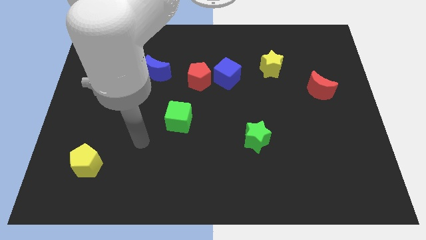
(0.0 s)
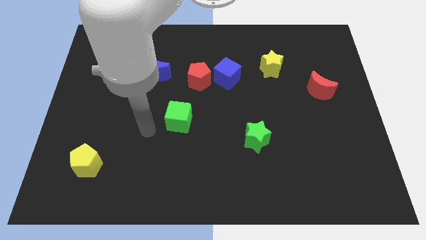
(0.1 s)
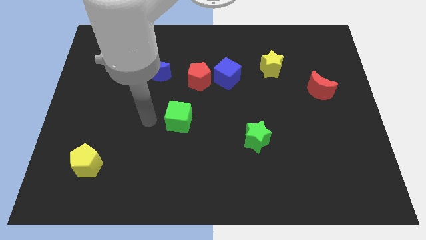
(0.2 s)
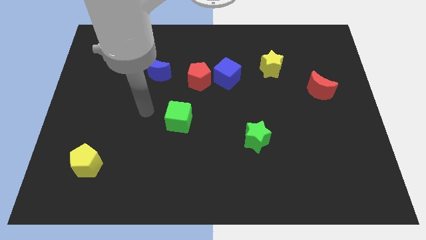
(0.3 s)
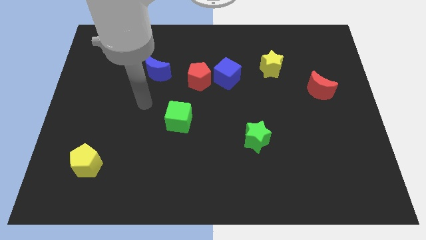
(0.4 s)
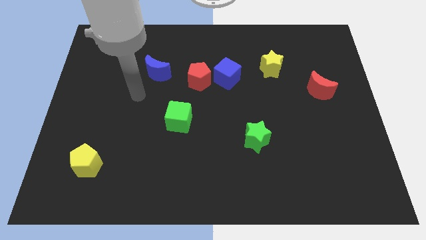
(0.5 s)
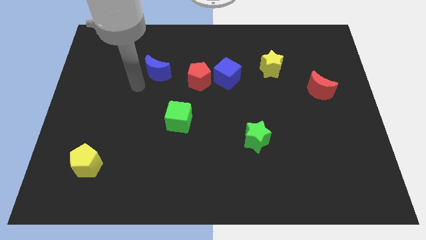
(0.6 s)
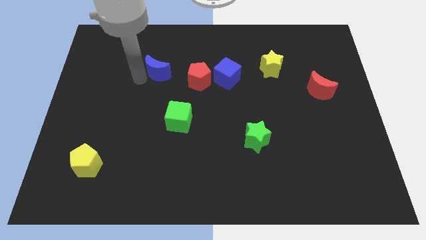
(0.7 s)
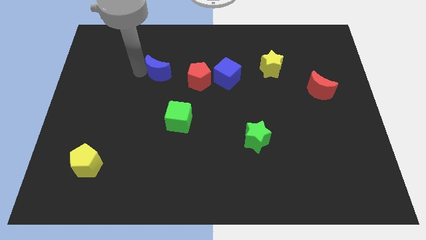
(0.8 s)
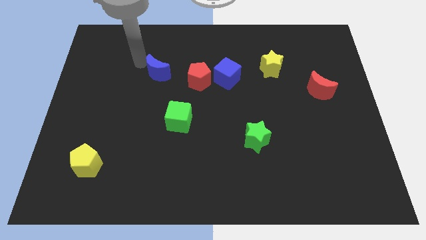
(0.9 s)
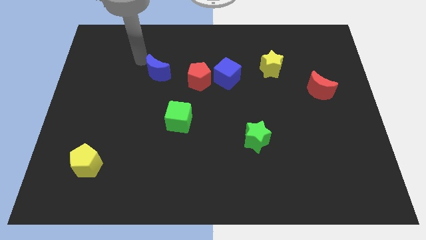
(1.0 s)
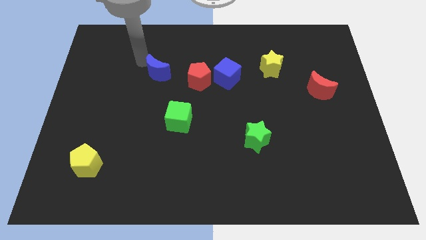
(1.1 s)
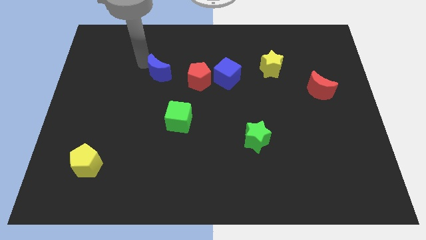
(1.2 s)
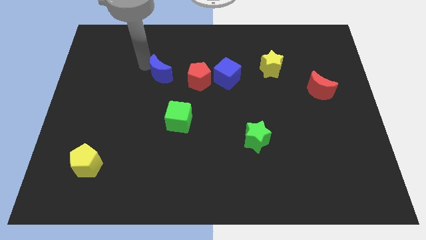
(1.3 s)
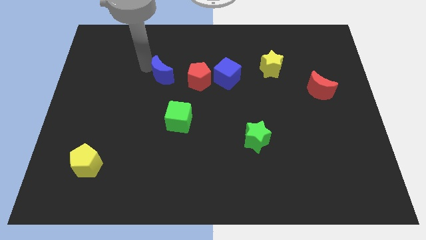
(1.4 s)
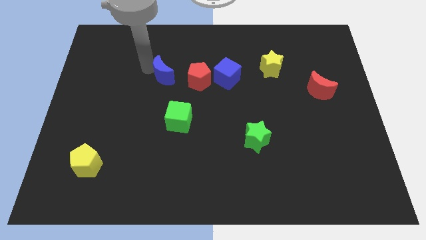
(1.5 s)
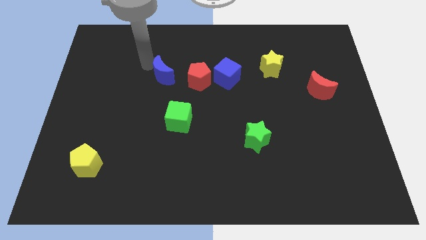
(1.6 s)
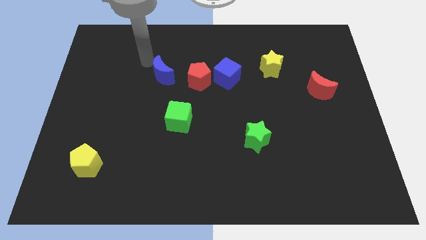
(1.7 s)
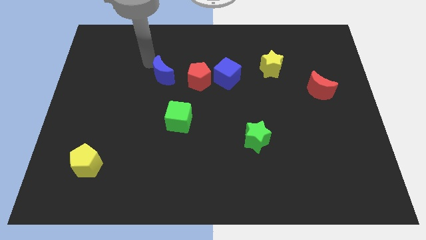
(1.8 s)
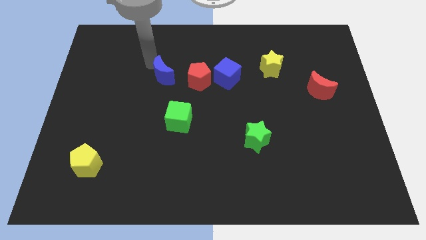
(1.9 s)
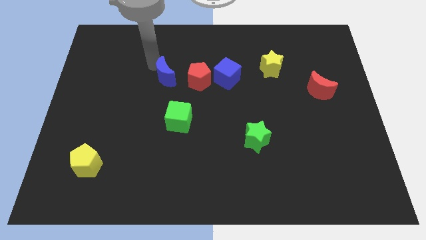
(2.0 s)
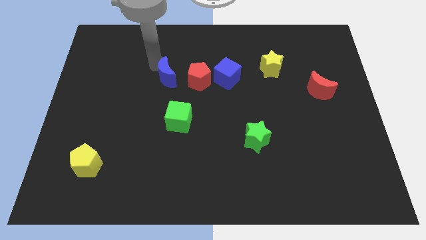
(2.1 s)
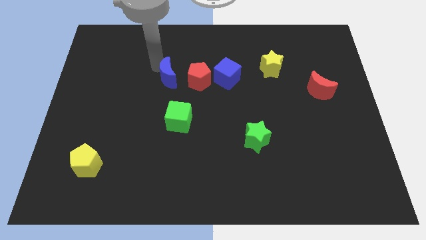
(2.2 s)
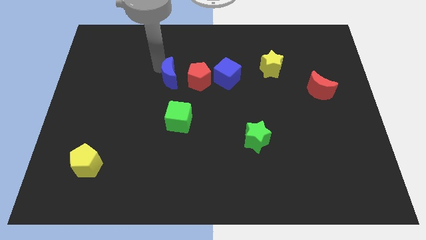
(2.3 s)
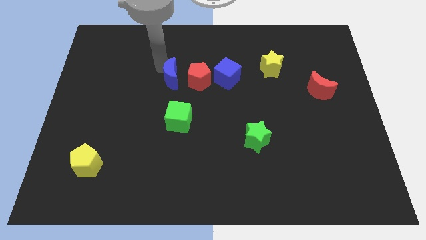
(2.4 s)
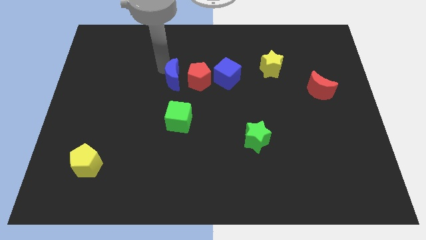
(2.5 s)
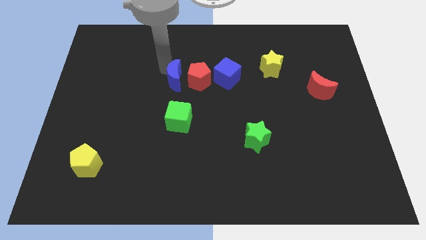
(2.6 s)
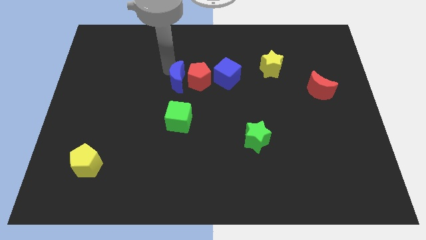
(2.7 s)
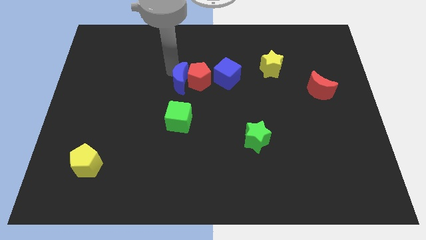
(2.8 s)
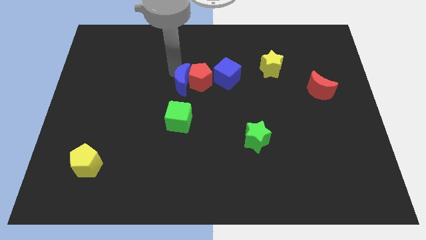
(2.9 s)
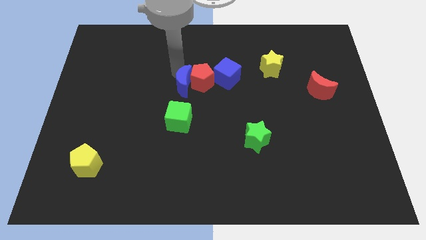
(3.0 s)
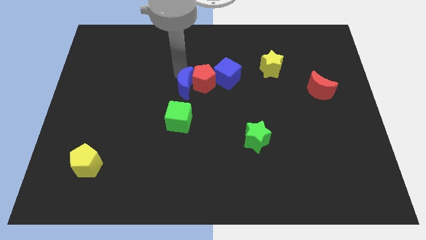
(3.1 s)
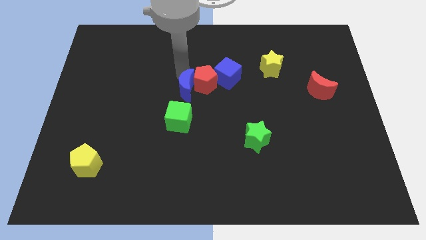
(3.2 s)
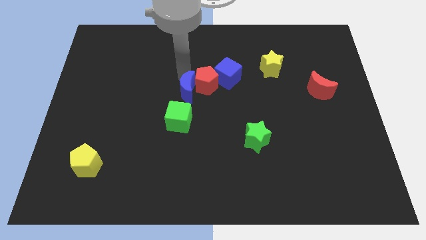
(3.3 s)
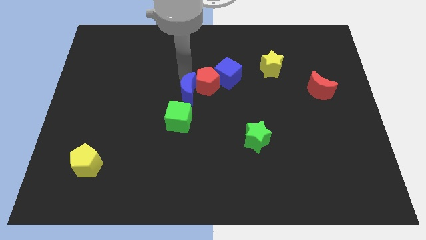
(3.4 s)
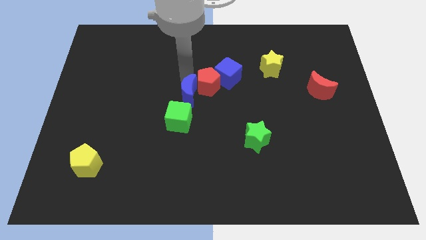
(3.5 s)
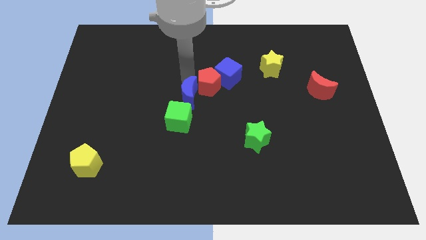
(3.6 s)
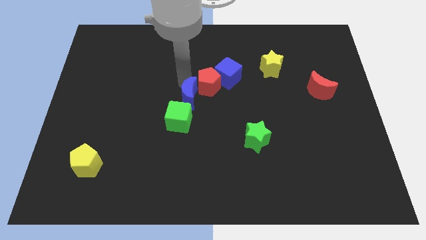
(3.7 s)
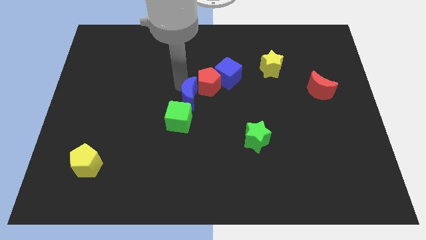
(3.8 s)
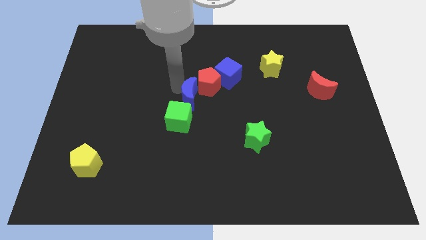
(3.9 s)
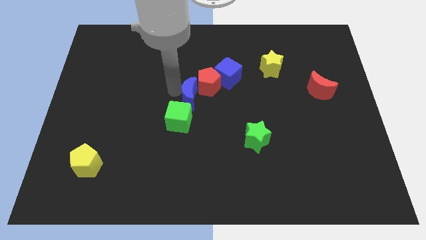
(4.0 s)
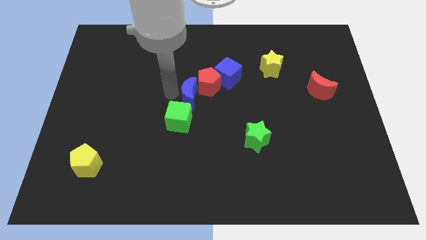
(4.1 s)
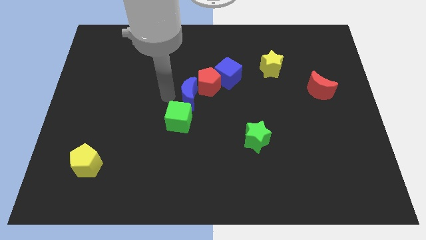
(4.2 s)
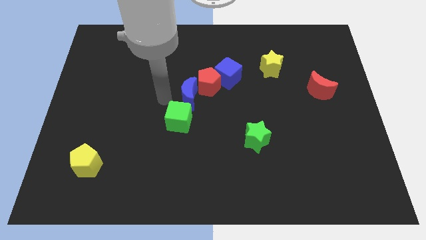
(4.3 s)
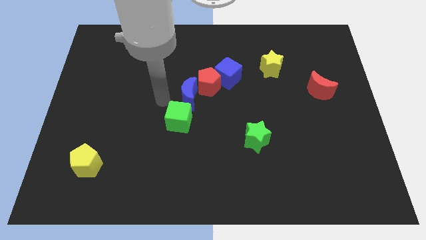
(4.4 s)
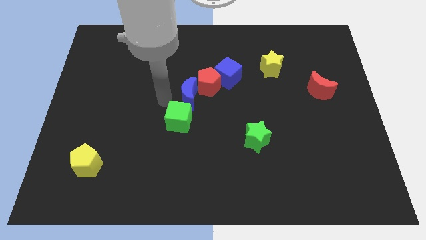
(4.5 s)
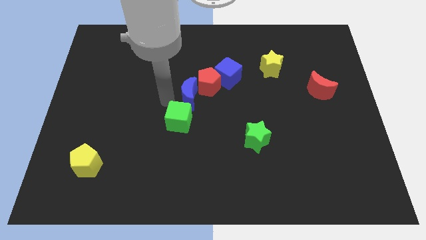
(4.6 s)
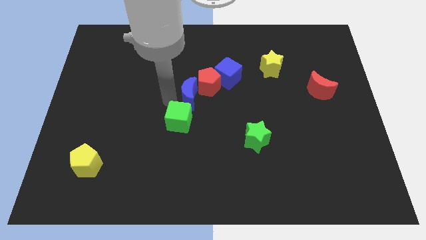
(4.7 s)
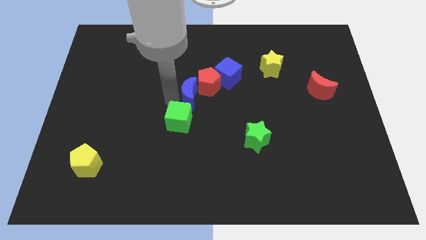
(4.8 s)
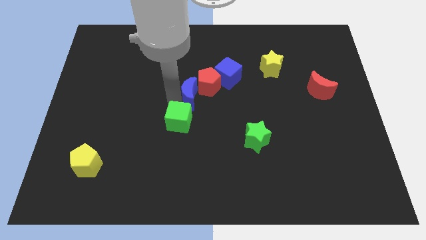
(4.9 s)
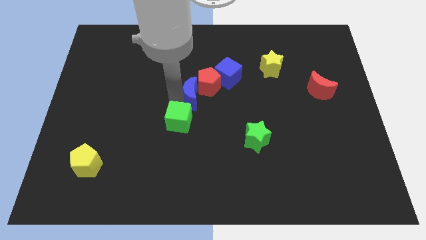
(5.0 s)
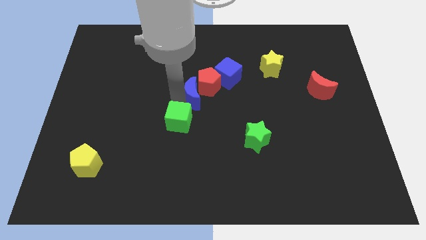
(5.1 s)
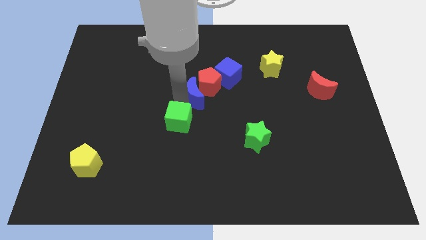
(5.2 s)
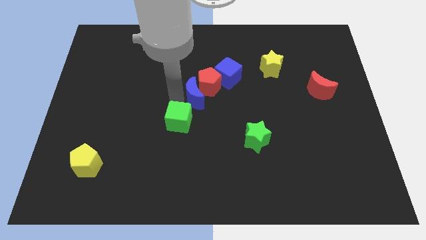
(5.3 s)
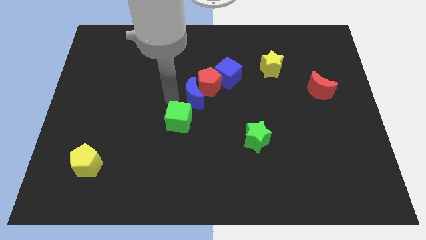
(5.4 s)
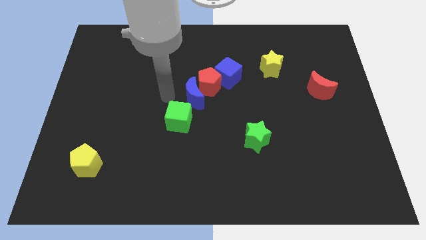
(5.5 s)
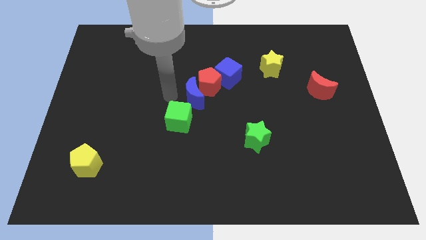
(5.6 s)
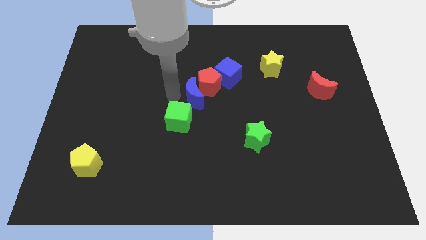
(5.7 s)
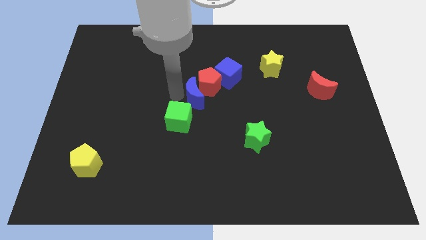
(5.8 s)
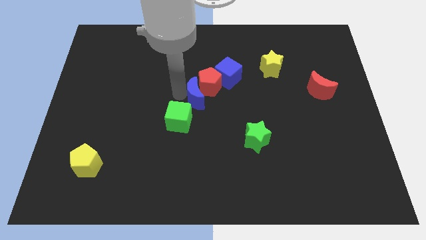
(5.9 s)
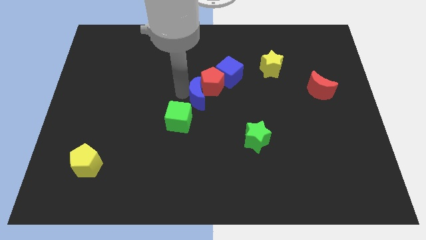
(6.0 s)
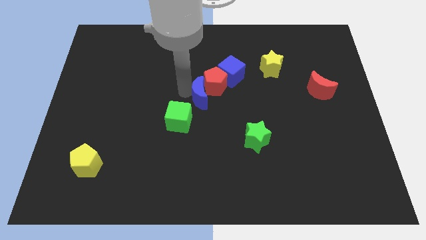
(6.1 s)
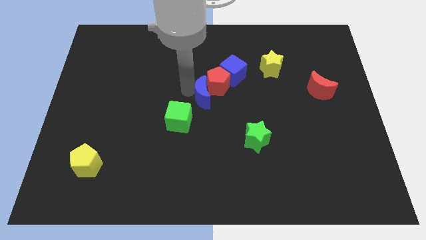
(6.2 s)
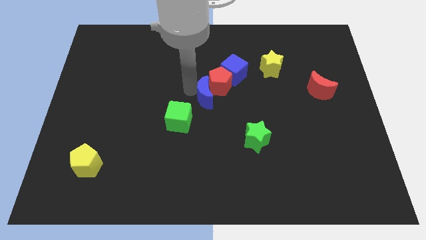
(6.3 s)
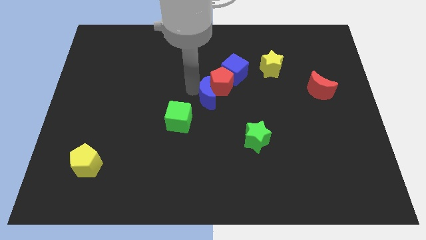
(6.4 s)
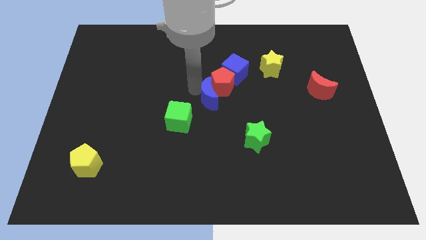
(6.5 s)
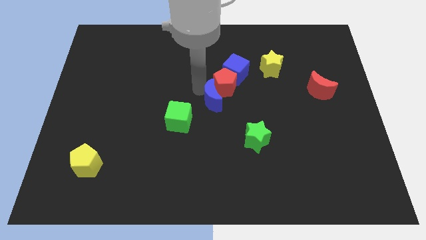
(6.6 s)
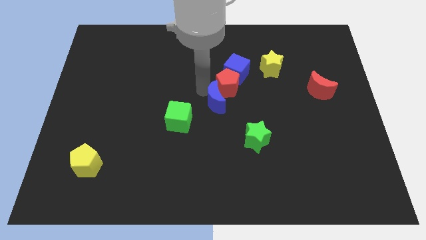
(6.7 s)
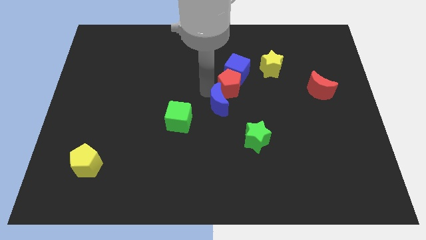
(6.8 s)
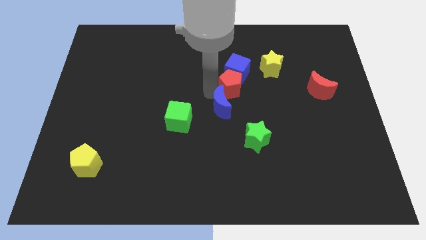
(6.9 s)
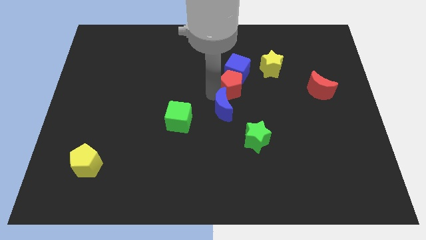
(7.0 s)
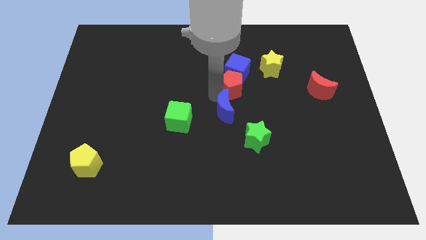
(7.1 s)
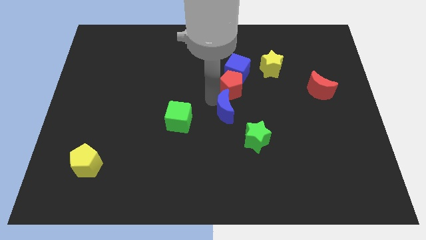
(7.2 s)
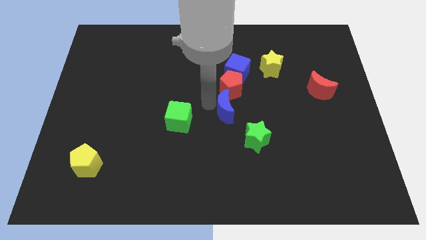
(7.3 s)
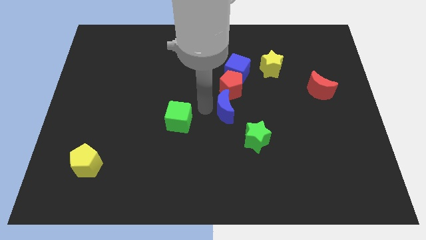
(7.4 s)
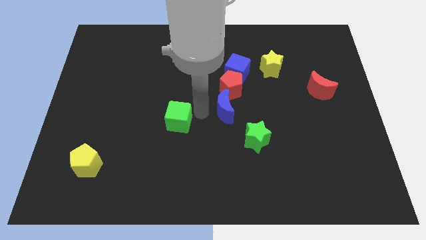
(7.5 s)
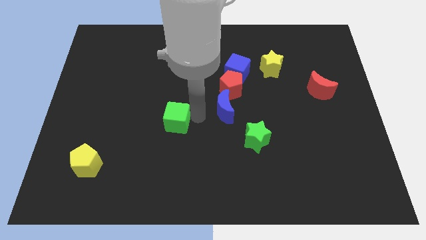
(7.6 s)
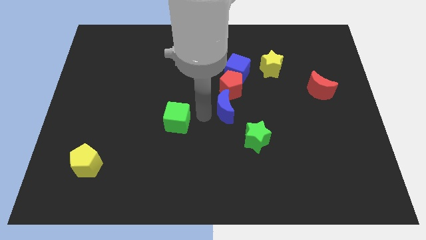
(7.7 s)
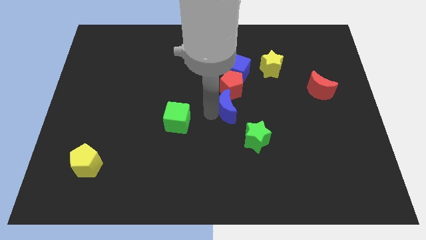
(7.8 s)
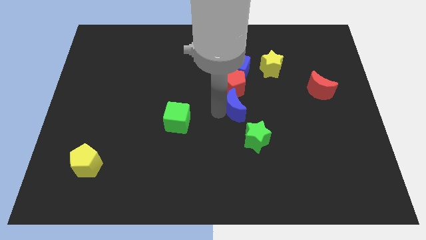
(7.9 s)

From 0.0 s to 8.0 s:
push the blue moon to the top of the green star
